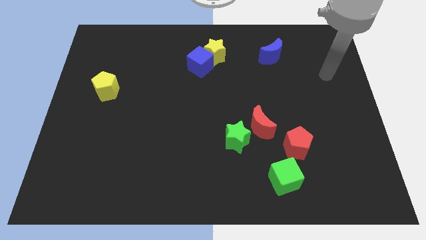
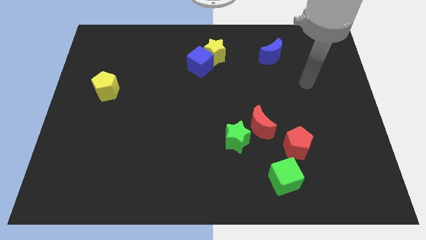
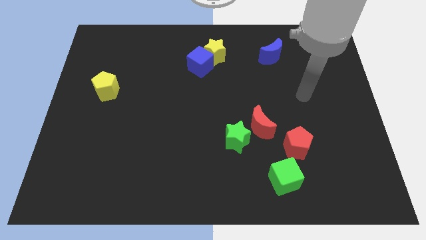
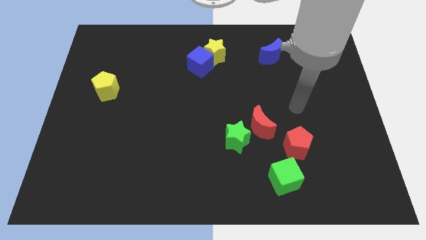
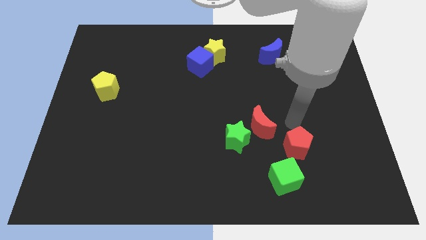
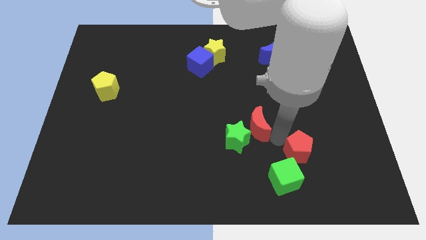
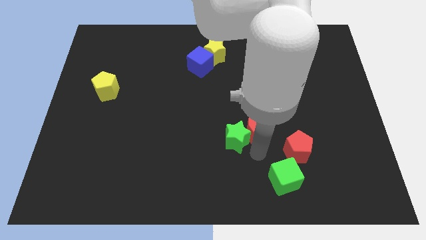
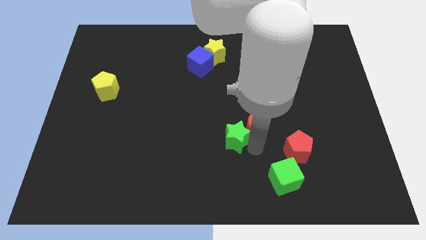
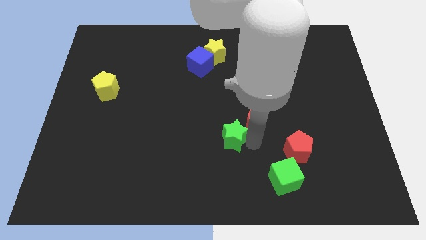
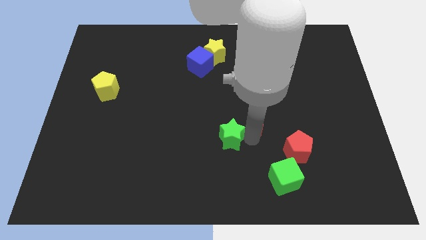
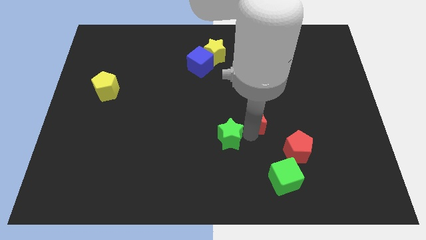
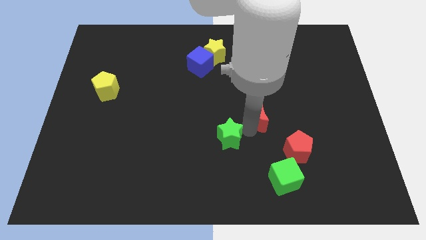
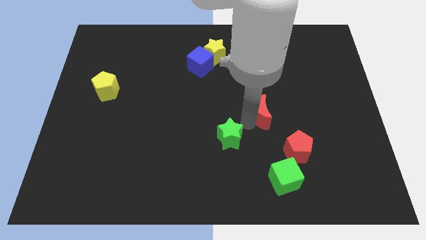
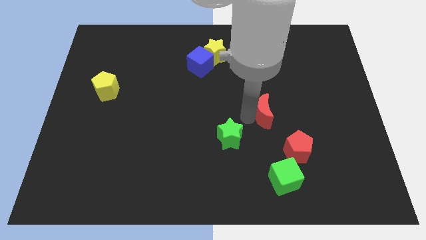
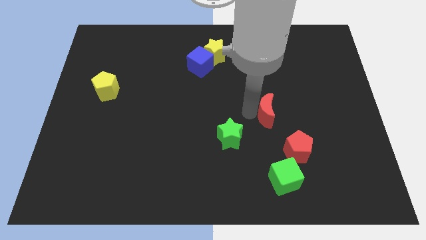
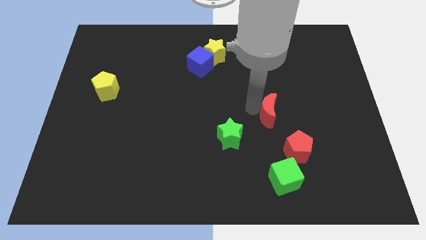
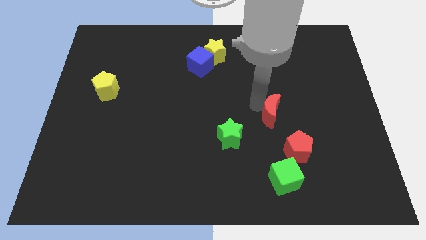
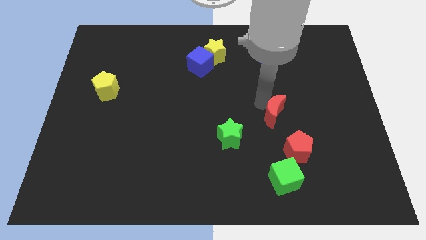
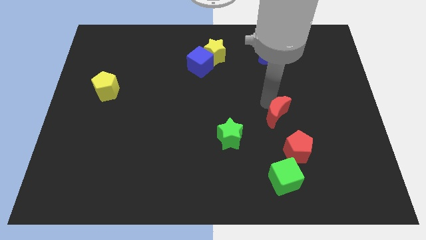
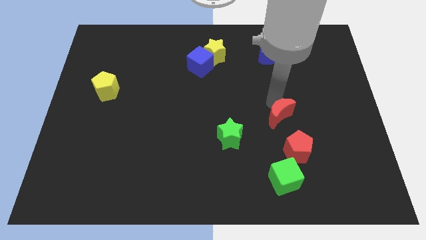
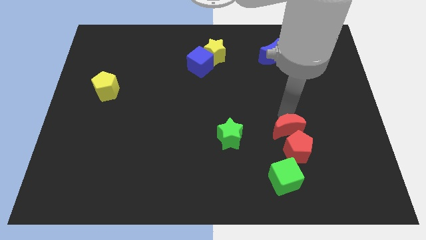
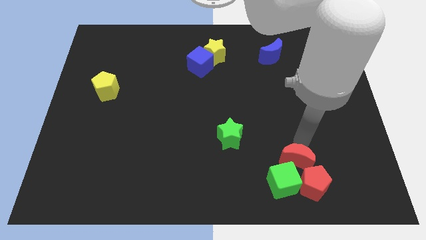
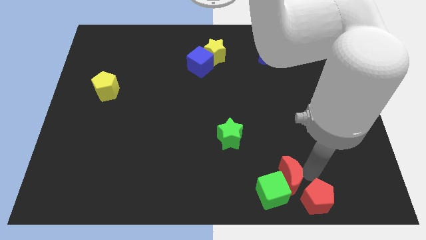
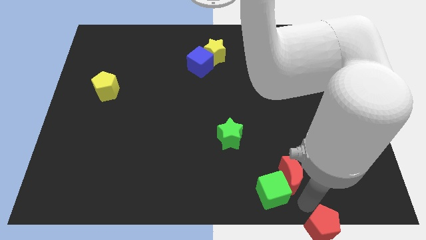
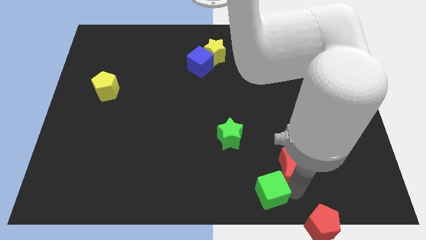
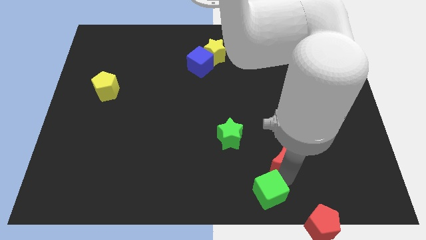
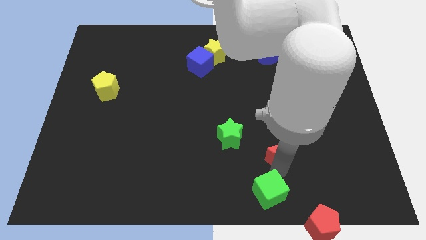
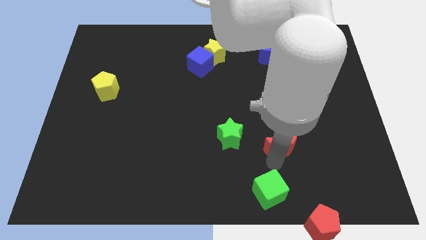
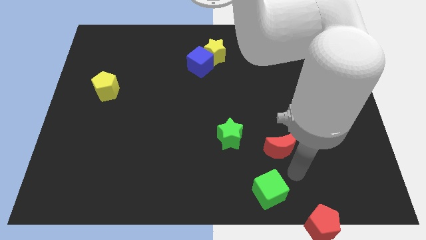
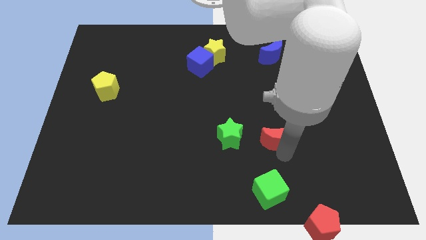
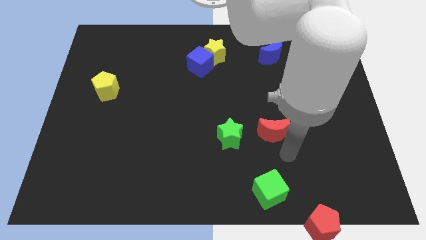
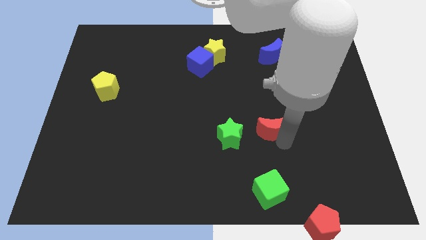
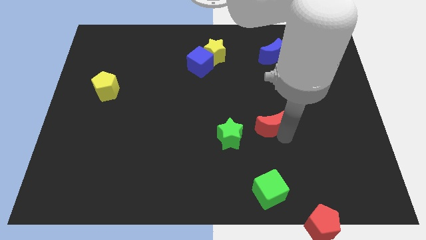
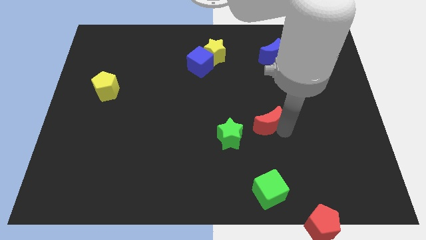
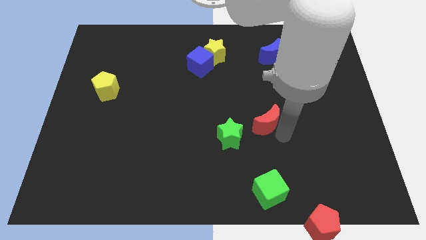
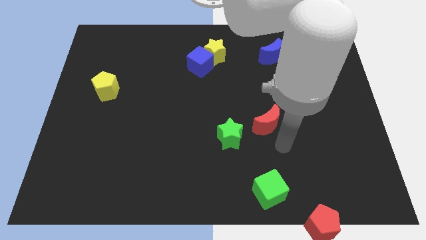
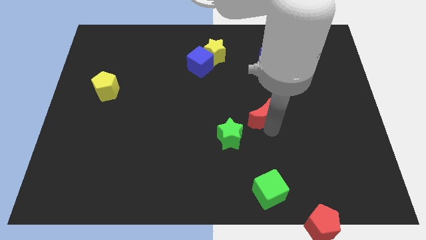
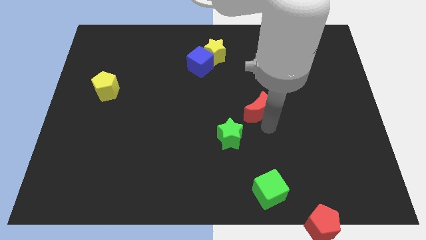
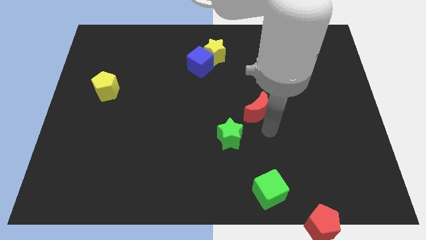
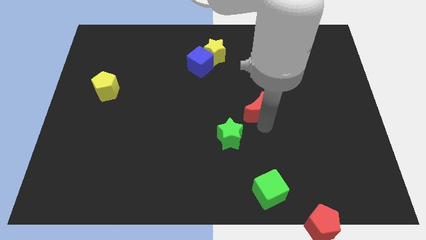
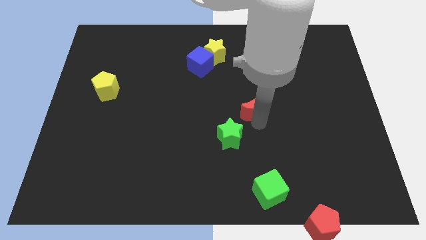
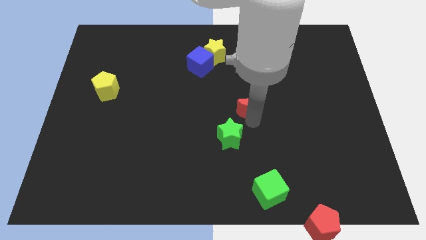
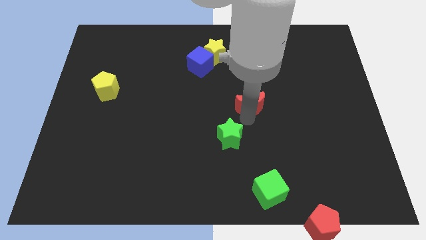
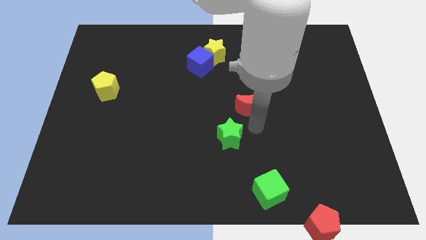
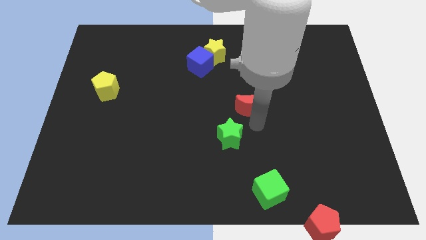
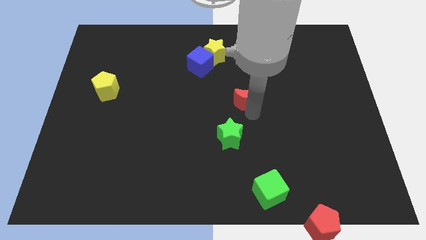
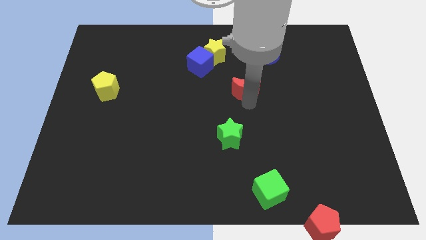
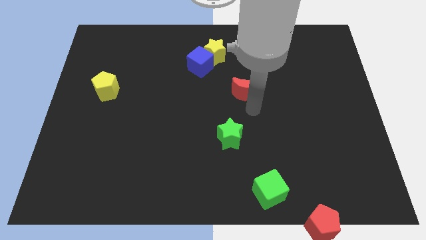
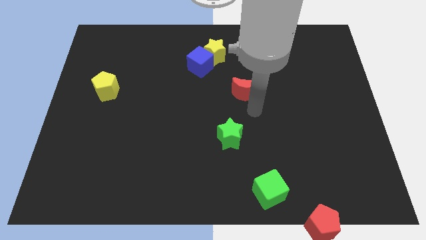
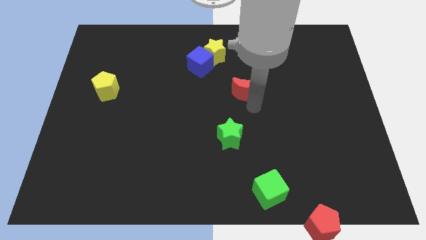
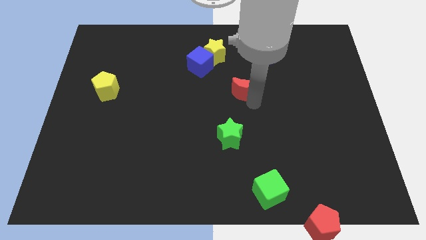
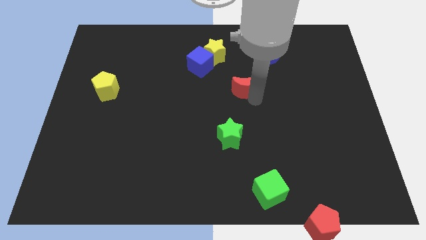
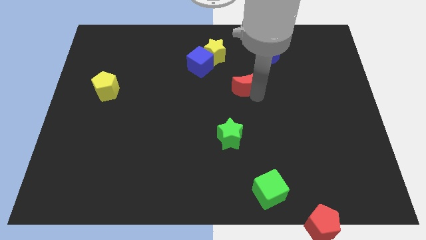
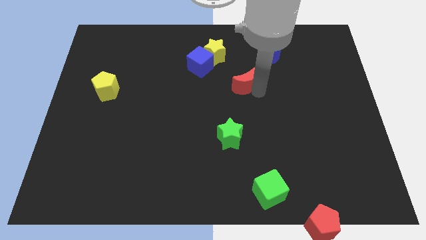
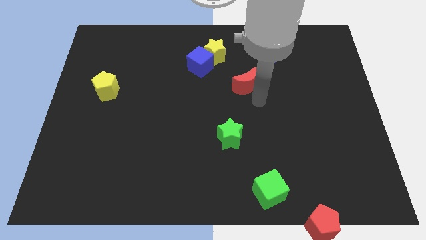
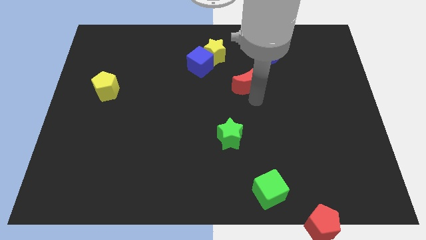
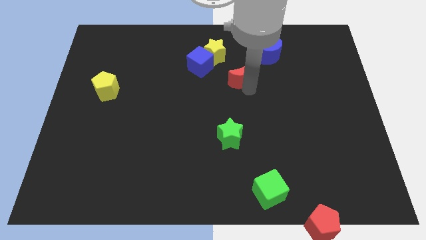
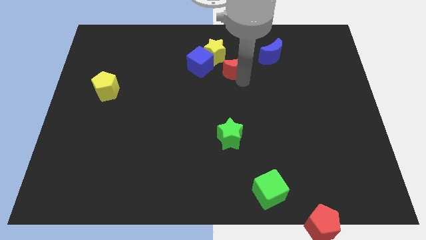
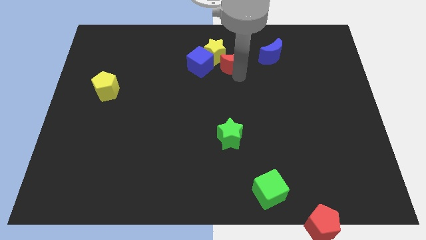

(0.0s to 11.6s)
push the red moon to the left of the blue moon

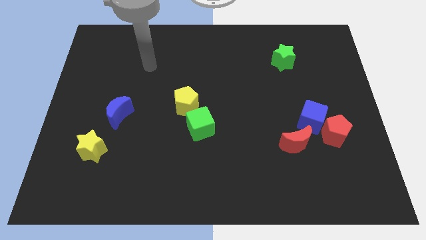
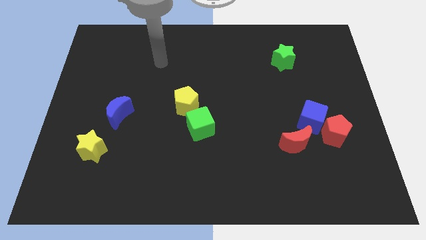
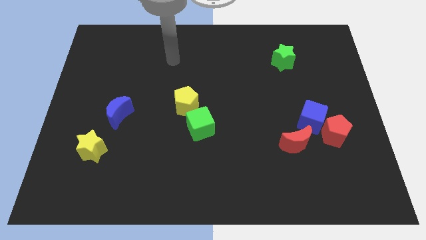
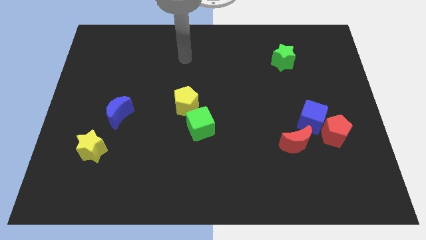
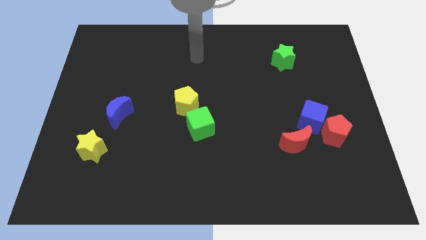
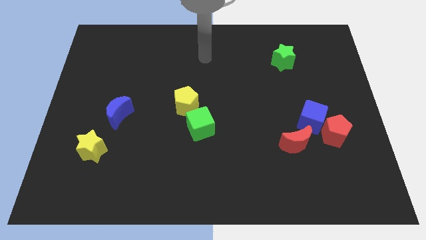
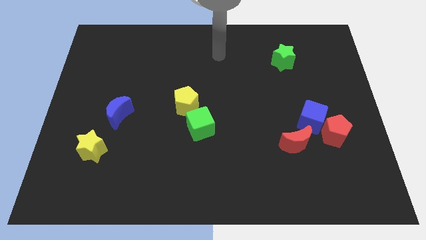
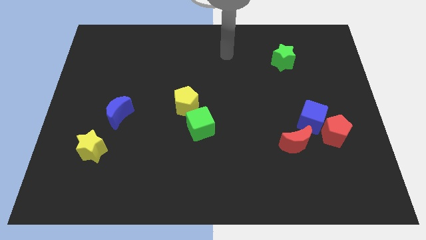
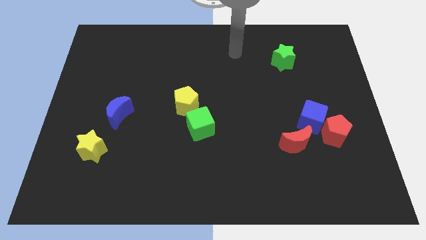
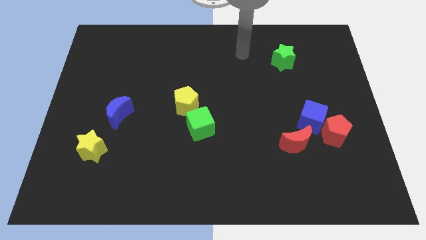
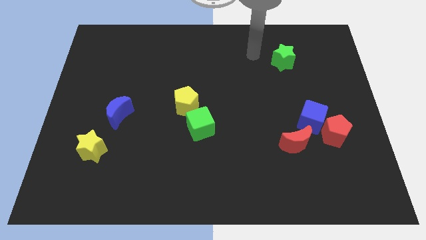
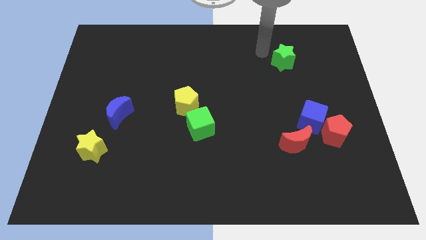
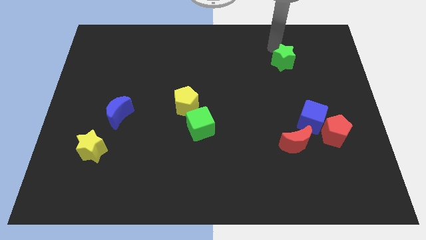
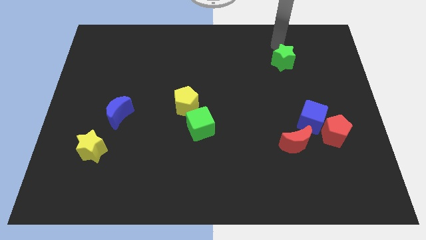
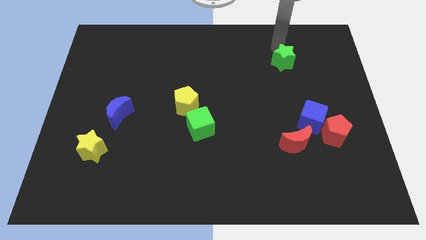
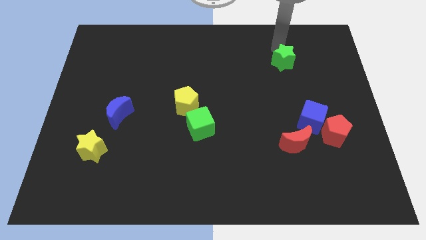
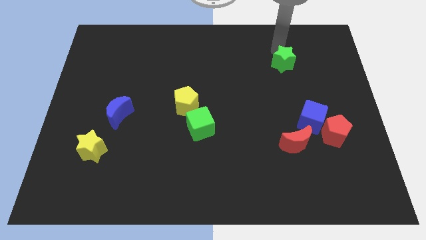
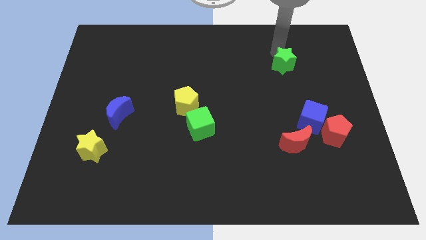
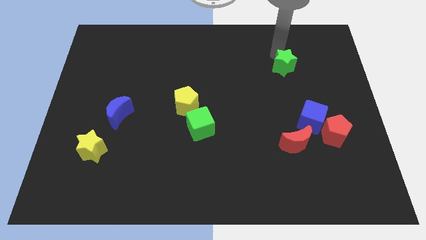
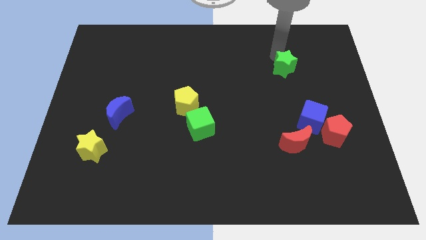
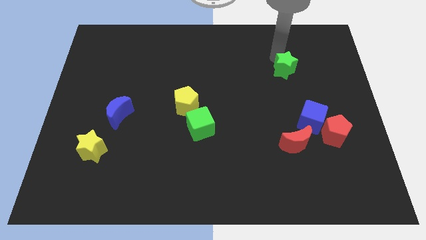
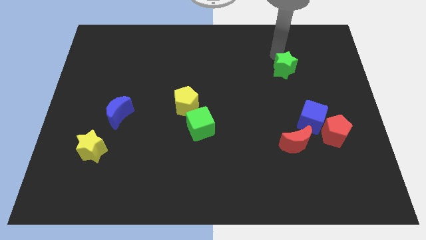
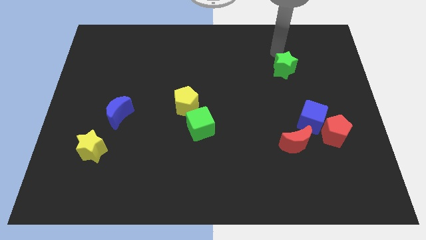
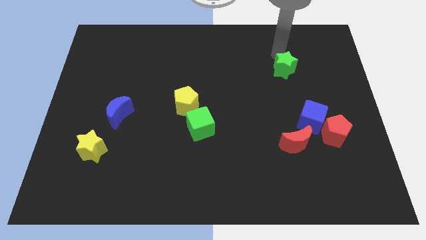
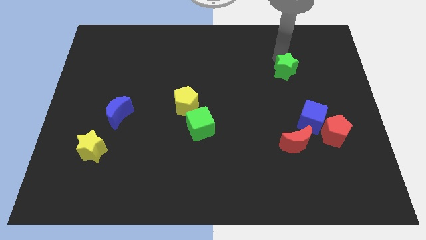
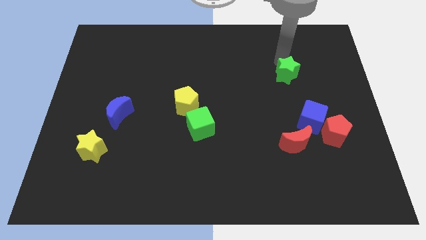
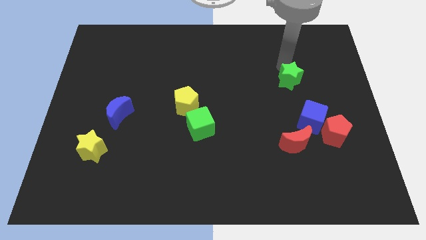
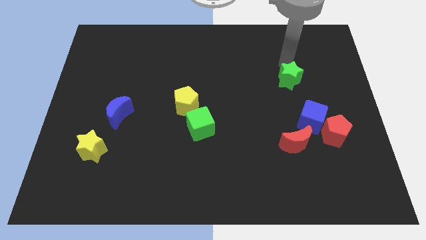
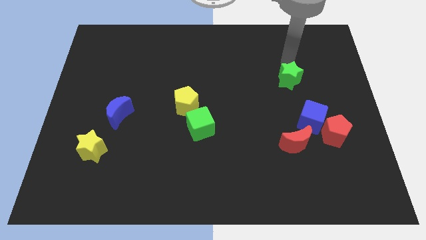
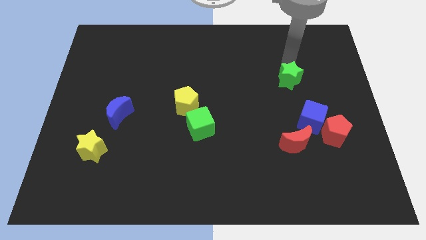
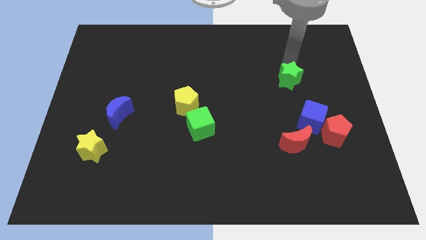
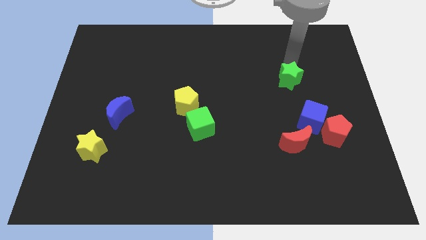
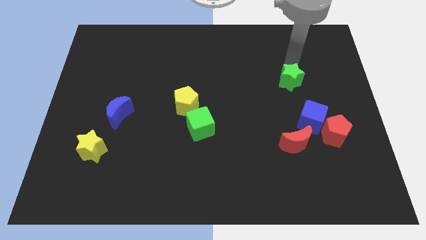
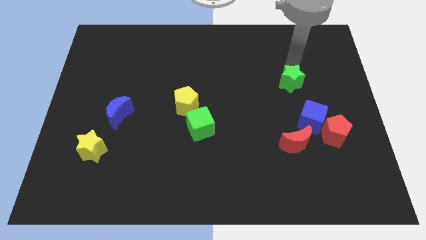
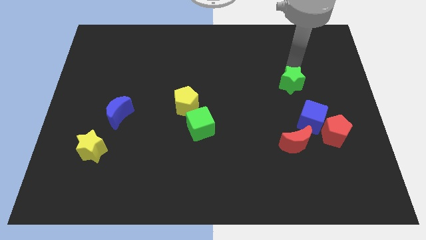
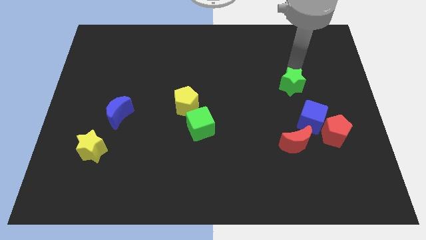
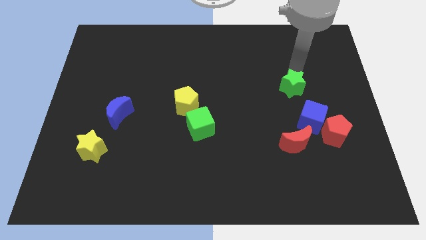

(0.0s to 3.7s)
slide the green star above the red moon
